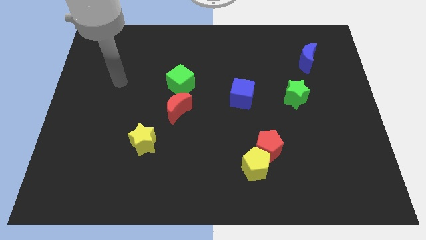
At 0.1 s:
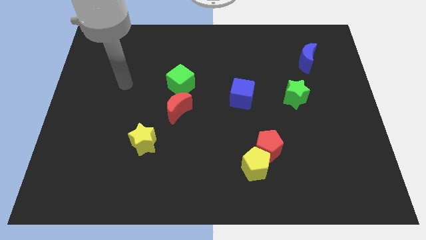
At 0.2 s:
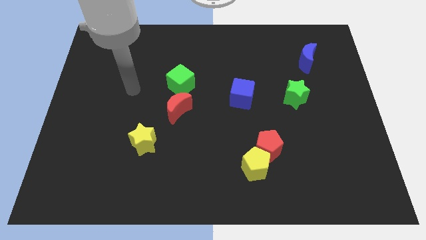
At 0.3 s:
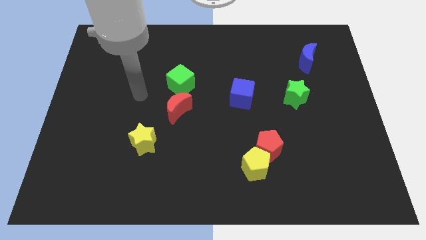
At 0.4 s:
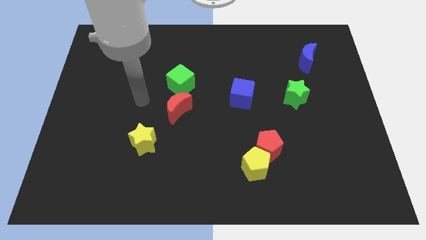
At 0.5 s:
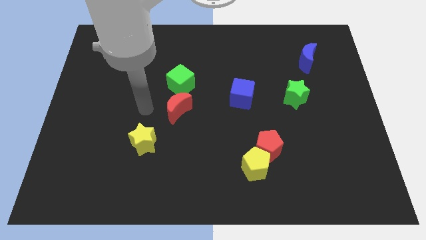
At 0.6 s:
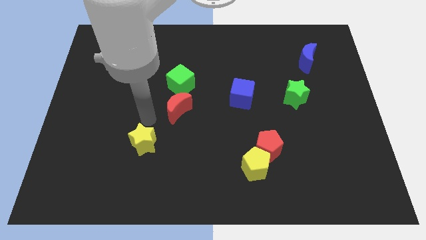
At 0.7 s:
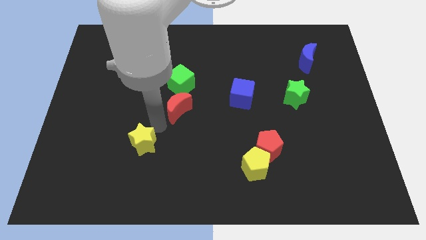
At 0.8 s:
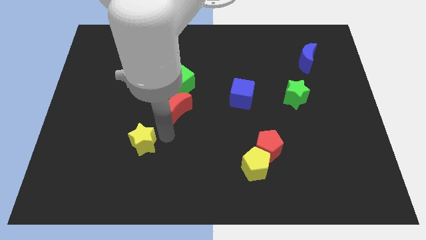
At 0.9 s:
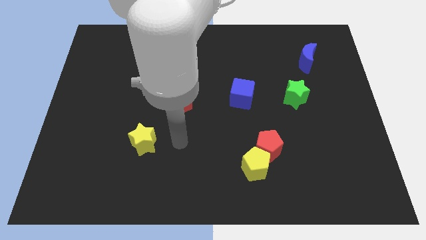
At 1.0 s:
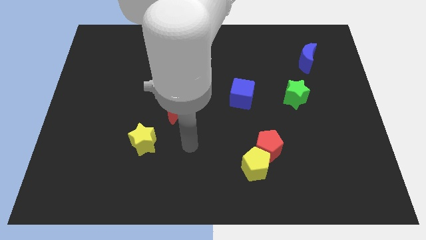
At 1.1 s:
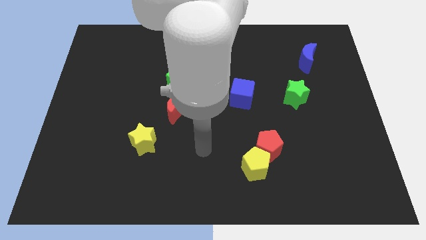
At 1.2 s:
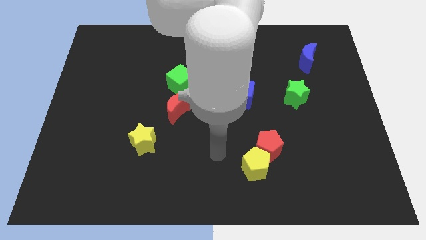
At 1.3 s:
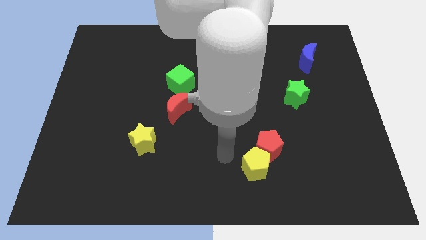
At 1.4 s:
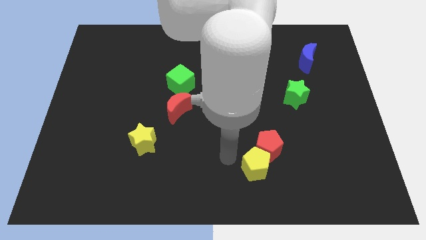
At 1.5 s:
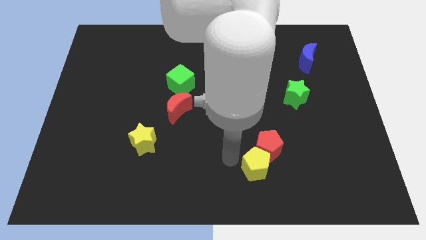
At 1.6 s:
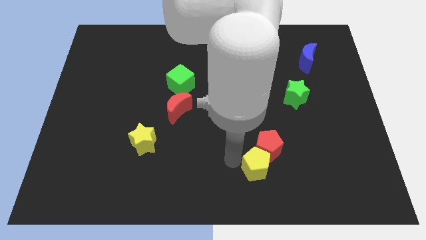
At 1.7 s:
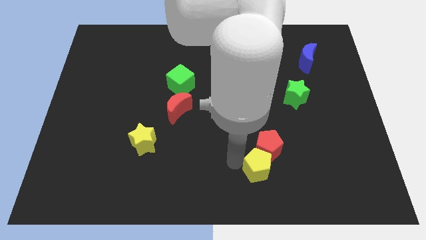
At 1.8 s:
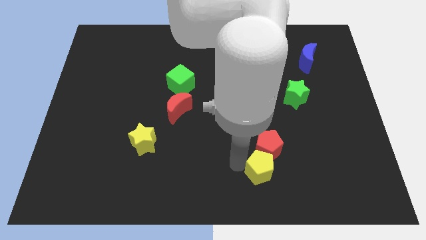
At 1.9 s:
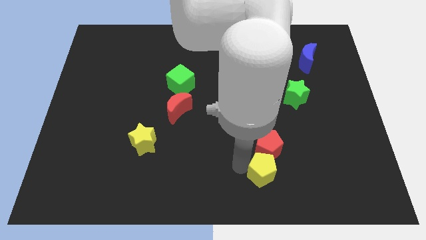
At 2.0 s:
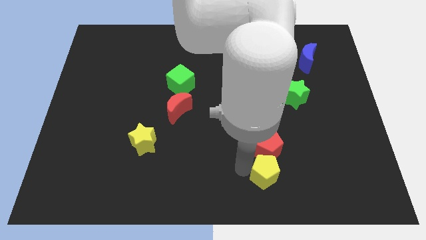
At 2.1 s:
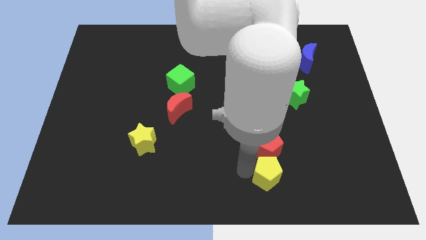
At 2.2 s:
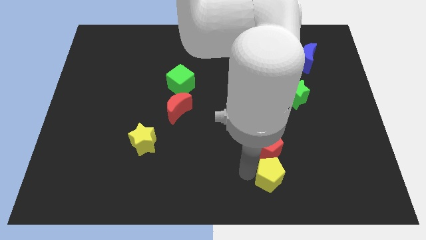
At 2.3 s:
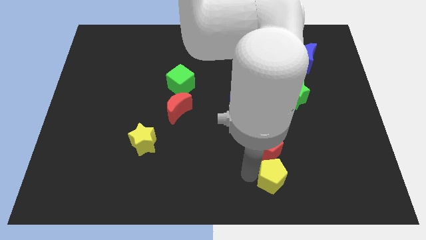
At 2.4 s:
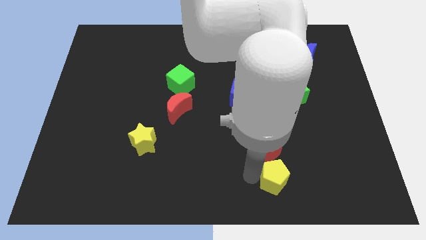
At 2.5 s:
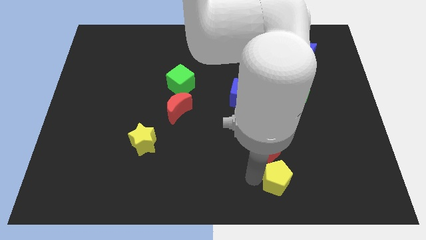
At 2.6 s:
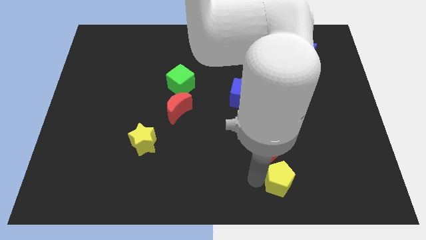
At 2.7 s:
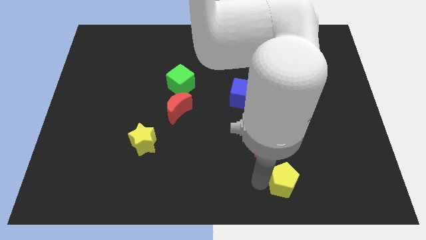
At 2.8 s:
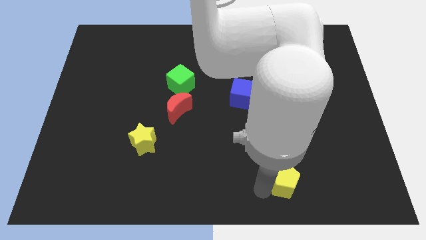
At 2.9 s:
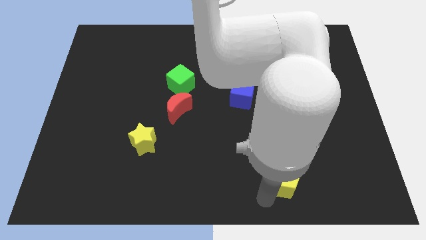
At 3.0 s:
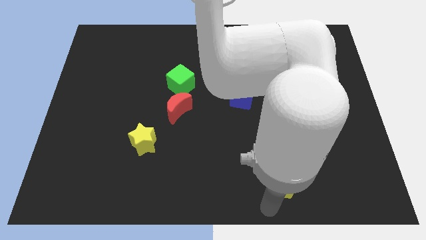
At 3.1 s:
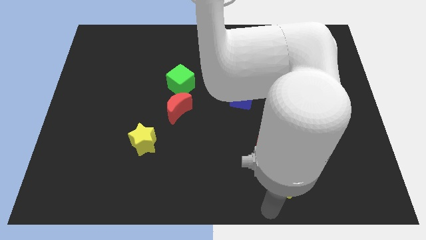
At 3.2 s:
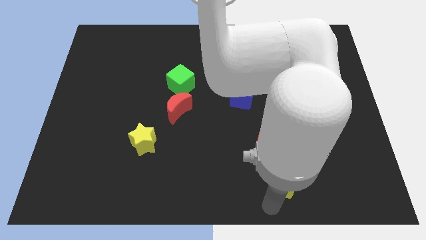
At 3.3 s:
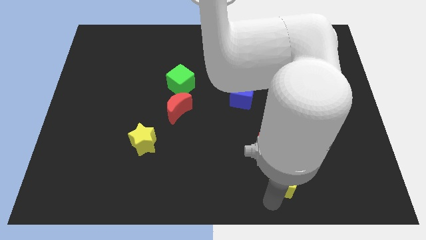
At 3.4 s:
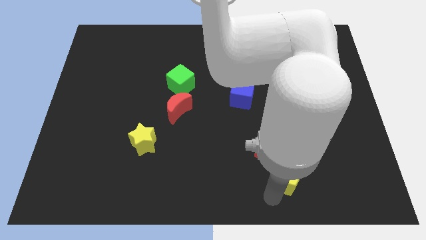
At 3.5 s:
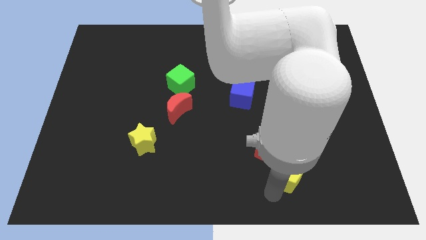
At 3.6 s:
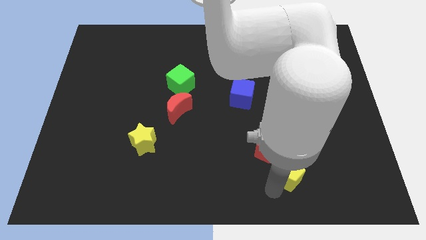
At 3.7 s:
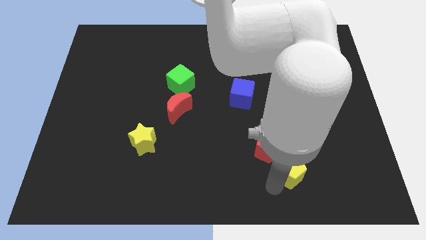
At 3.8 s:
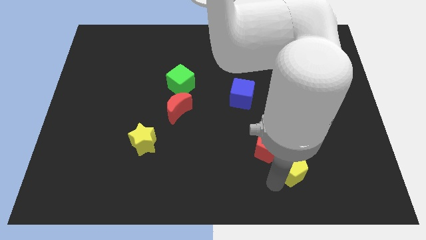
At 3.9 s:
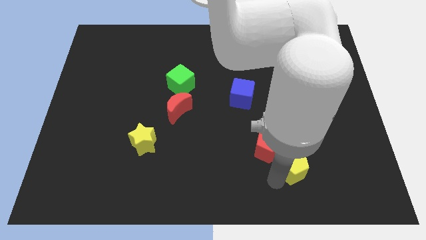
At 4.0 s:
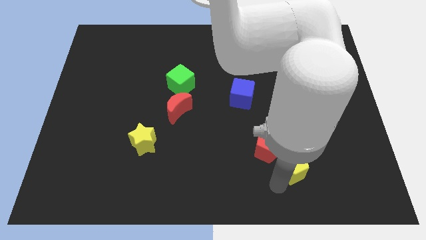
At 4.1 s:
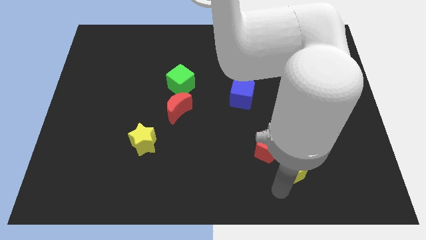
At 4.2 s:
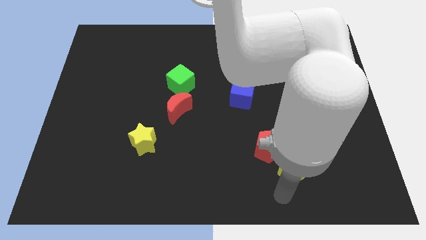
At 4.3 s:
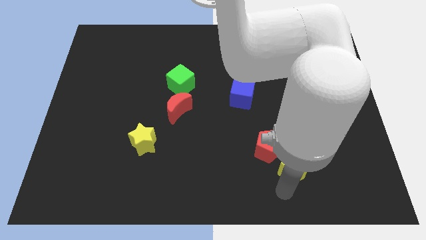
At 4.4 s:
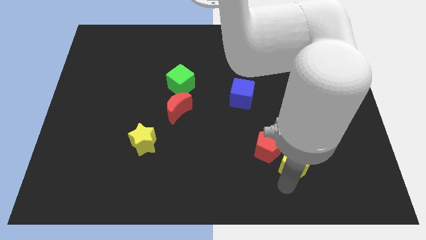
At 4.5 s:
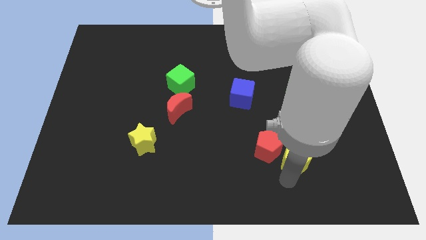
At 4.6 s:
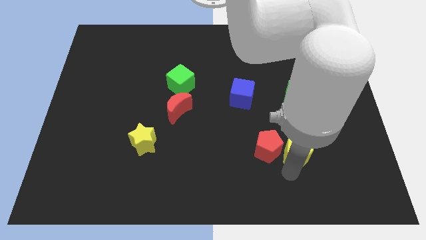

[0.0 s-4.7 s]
slide the yellow pentagon a little bit diagonally upwards and to the right

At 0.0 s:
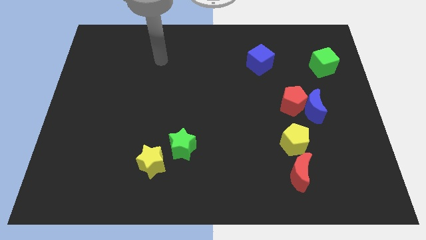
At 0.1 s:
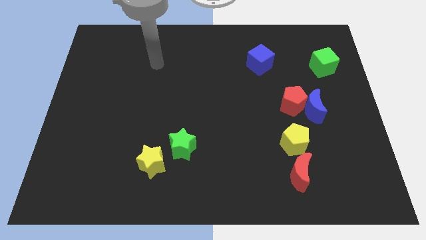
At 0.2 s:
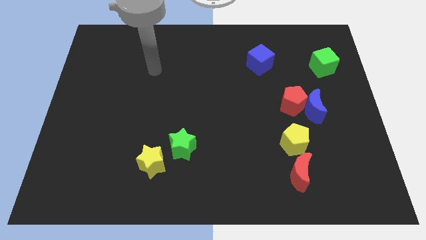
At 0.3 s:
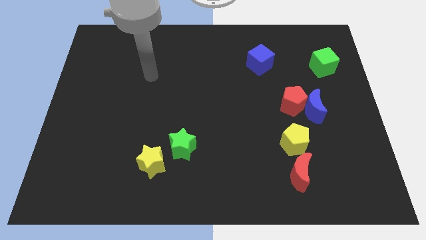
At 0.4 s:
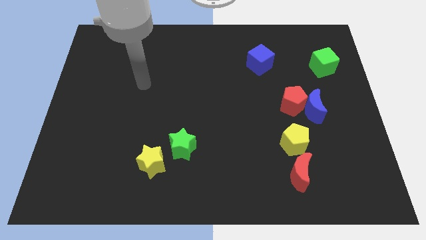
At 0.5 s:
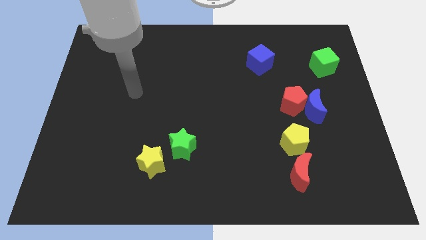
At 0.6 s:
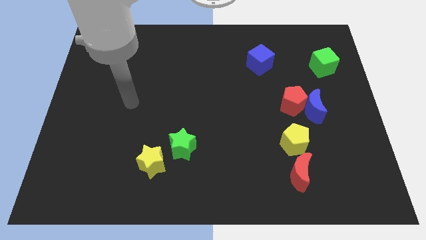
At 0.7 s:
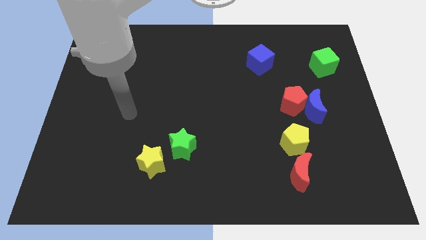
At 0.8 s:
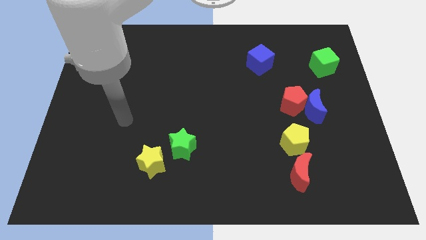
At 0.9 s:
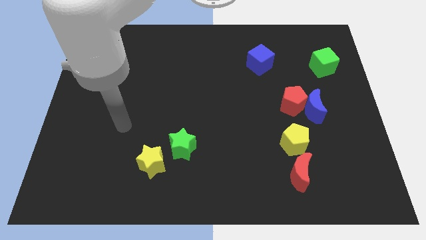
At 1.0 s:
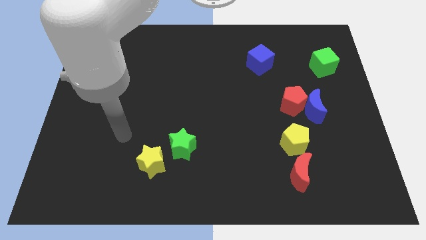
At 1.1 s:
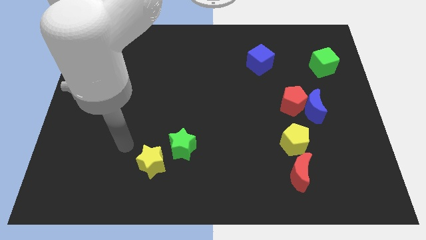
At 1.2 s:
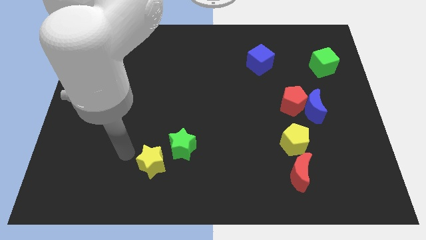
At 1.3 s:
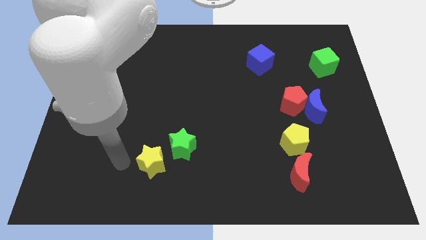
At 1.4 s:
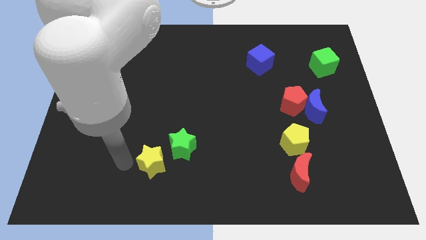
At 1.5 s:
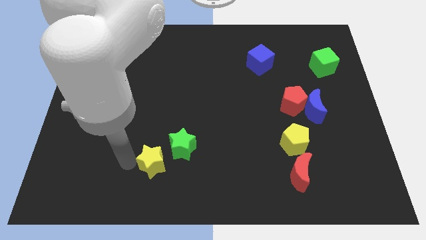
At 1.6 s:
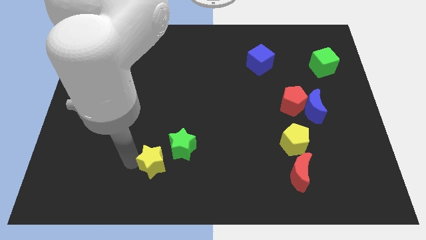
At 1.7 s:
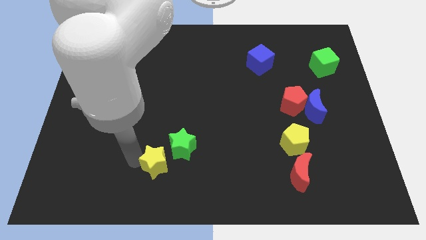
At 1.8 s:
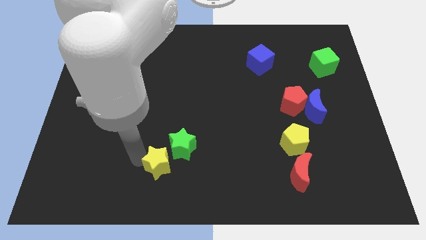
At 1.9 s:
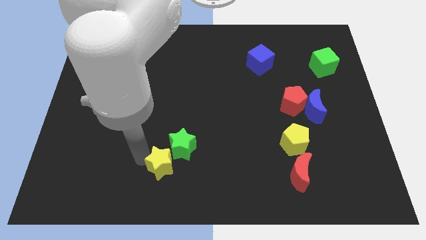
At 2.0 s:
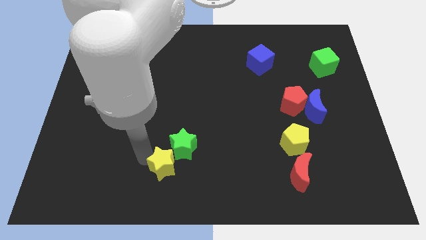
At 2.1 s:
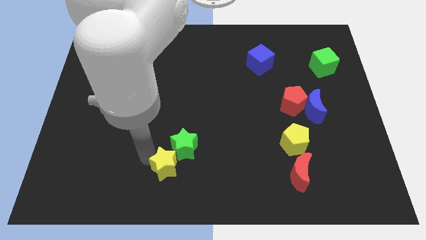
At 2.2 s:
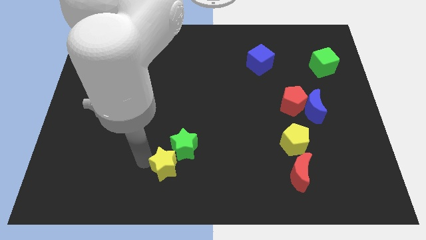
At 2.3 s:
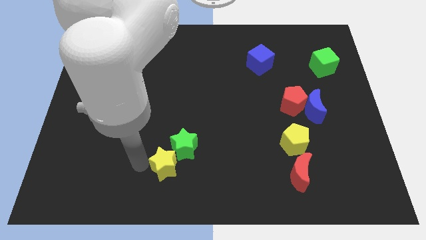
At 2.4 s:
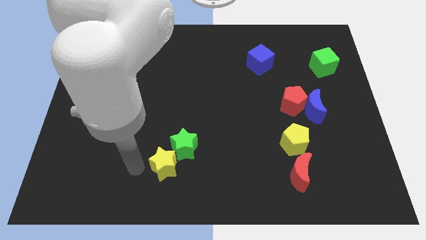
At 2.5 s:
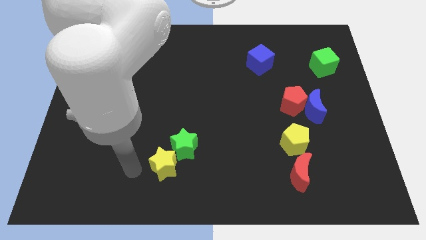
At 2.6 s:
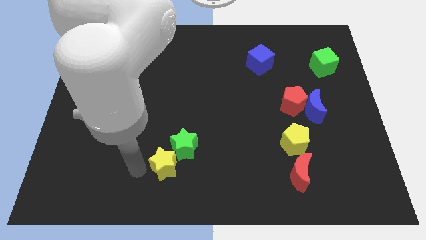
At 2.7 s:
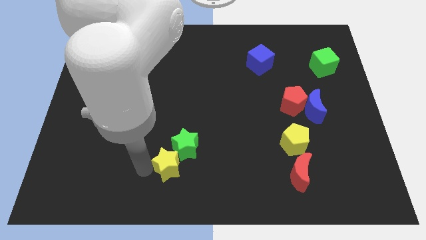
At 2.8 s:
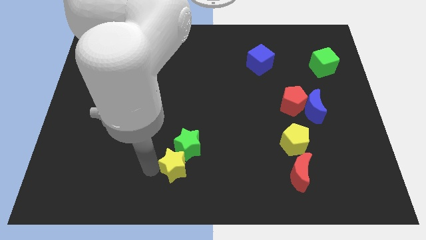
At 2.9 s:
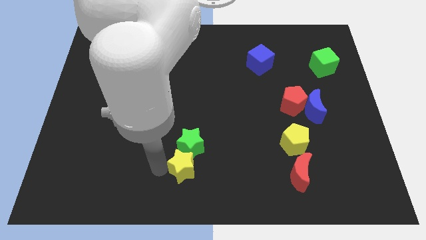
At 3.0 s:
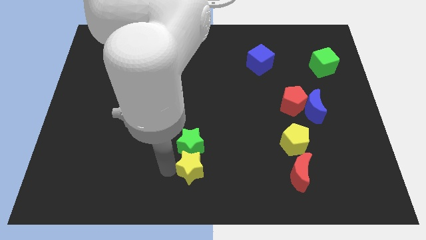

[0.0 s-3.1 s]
slide the yellow star somewhat right

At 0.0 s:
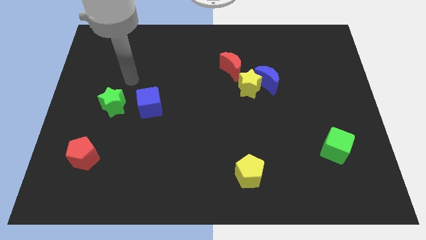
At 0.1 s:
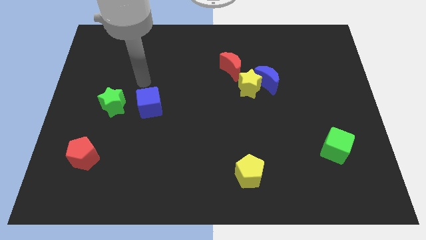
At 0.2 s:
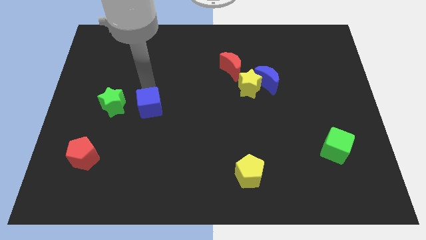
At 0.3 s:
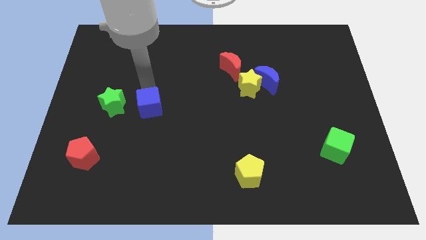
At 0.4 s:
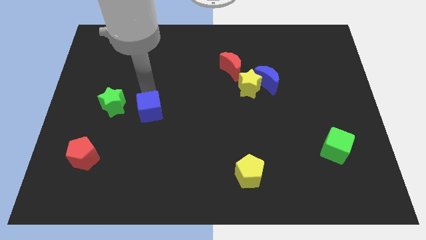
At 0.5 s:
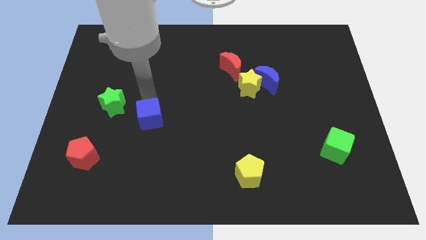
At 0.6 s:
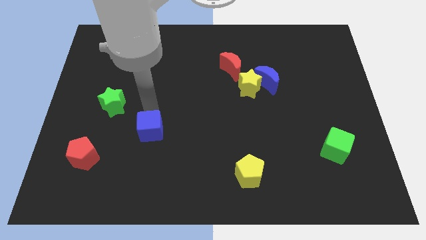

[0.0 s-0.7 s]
push the blue cube a bit down
